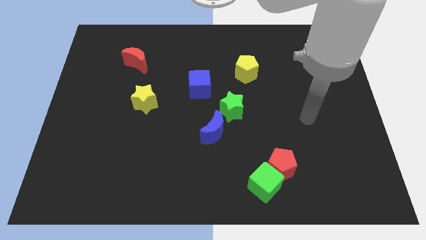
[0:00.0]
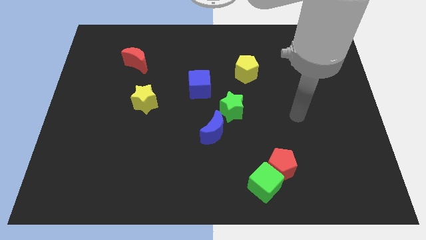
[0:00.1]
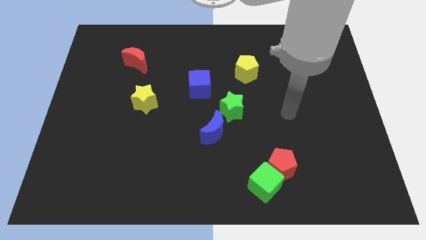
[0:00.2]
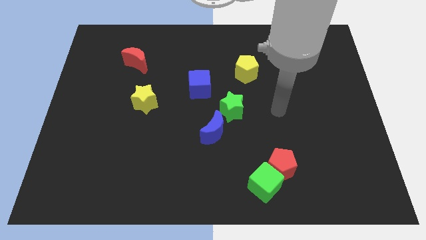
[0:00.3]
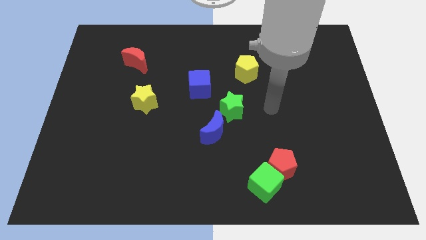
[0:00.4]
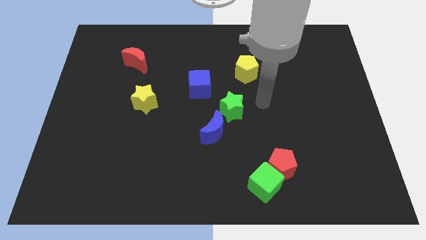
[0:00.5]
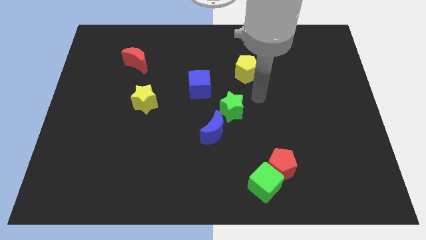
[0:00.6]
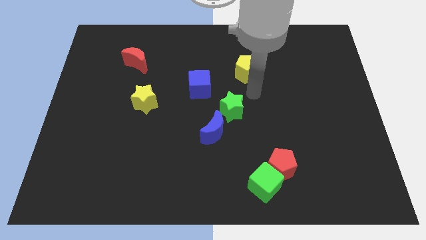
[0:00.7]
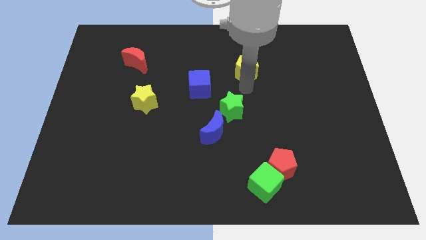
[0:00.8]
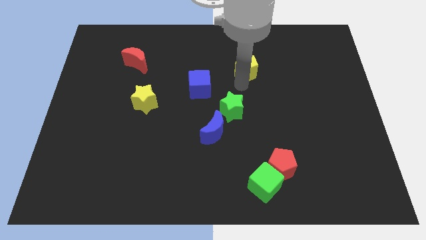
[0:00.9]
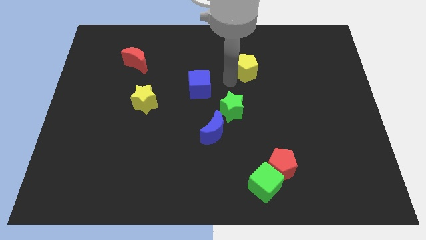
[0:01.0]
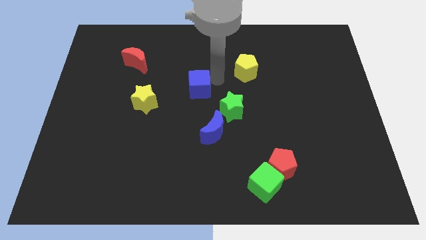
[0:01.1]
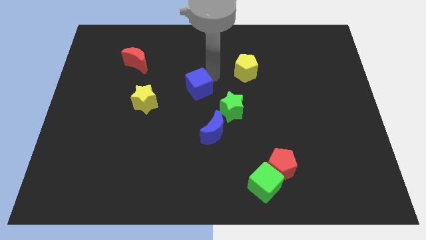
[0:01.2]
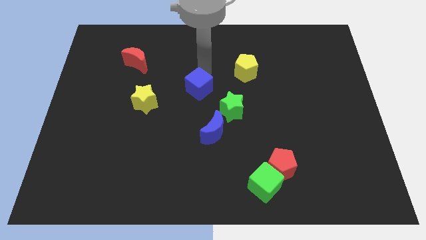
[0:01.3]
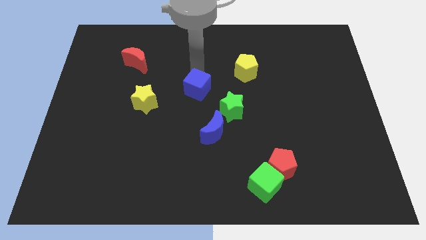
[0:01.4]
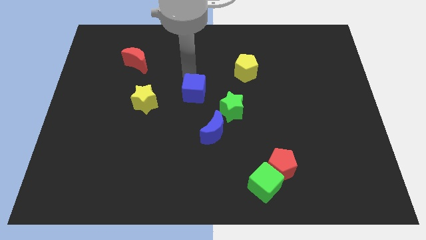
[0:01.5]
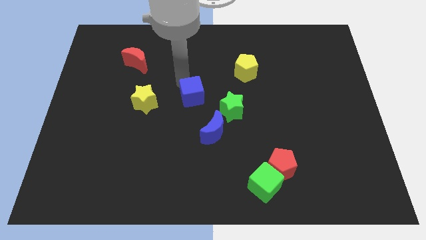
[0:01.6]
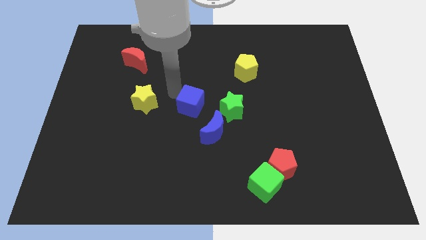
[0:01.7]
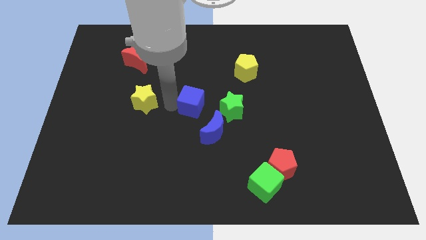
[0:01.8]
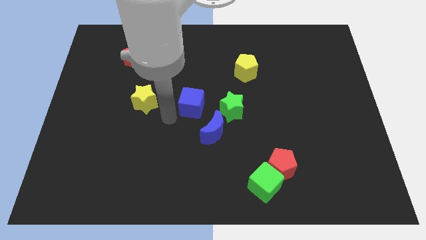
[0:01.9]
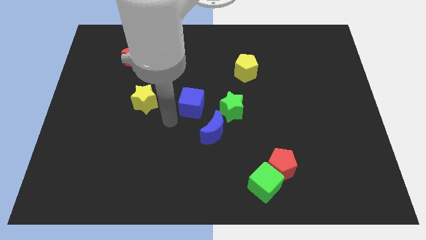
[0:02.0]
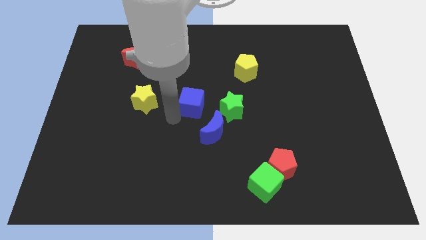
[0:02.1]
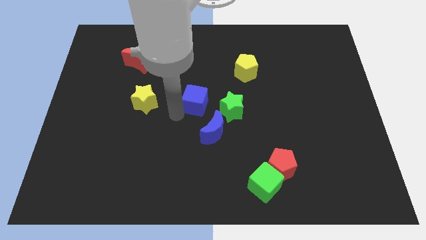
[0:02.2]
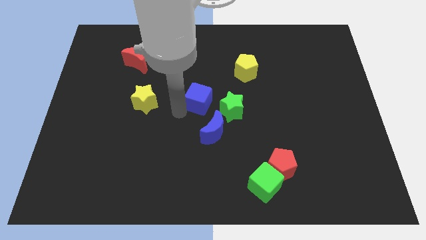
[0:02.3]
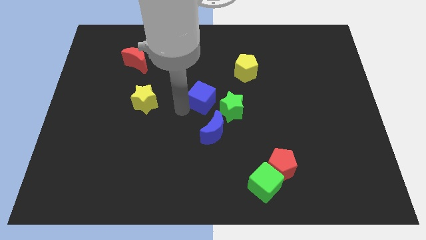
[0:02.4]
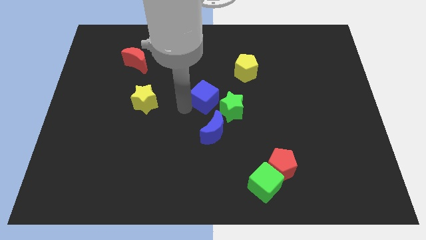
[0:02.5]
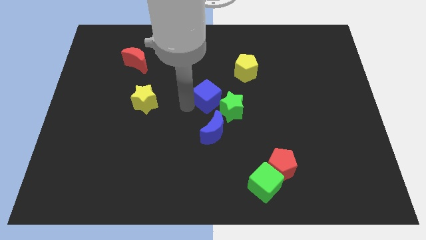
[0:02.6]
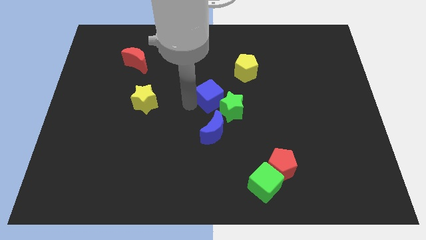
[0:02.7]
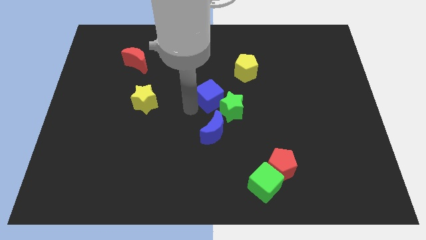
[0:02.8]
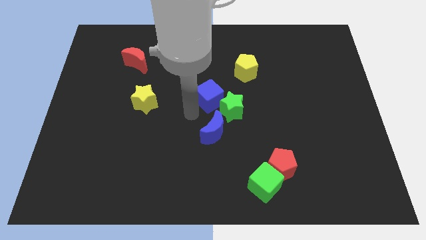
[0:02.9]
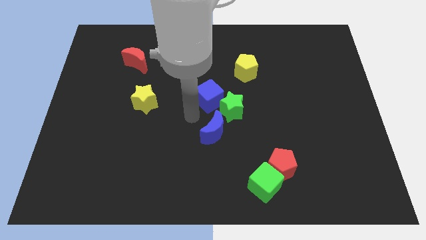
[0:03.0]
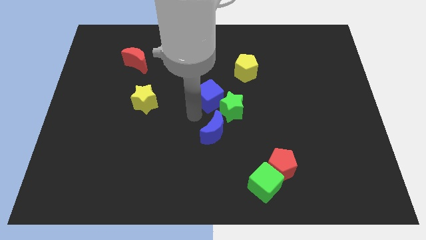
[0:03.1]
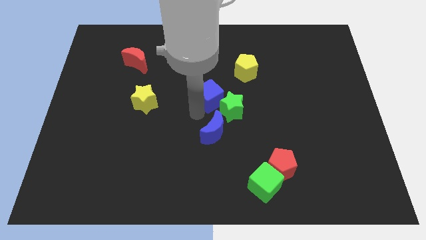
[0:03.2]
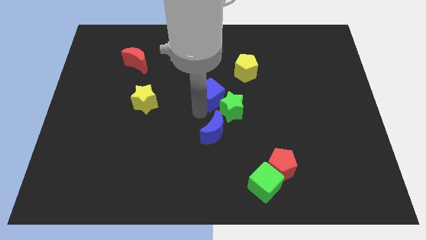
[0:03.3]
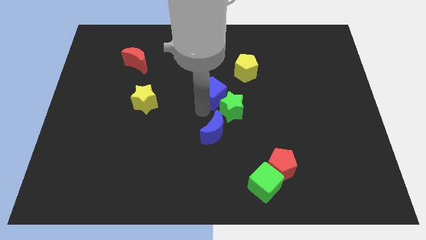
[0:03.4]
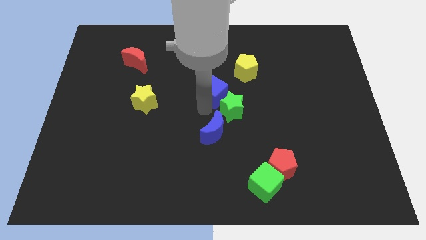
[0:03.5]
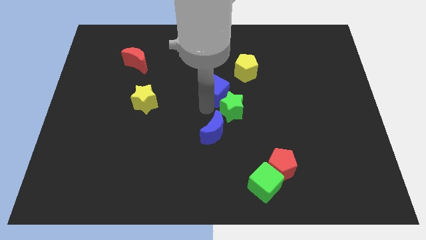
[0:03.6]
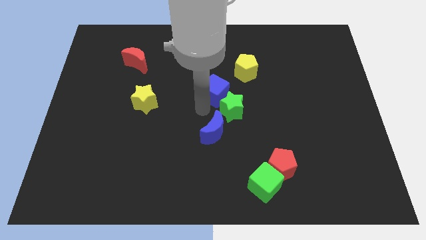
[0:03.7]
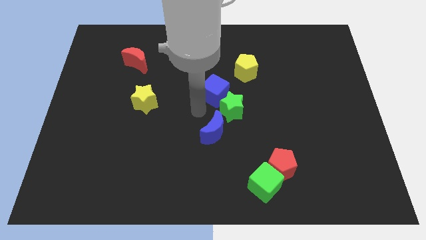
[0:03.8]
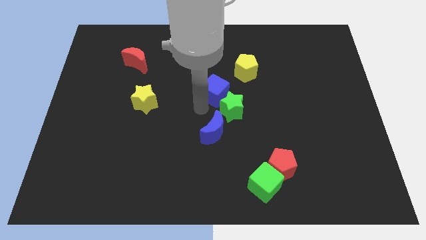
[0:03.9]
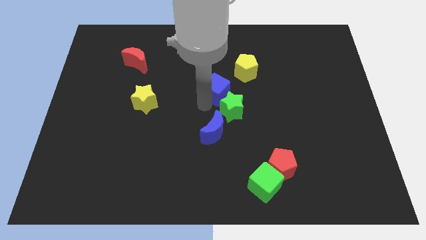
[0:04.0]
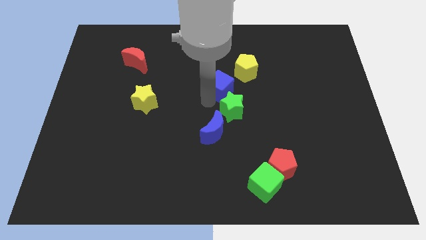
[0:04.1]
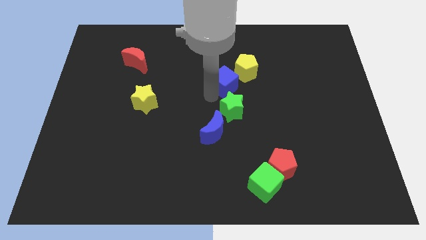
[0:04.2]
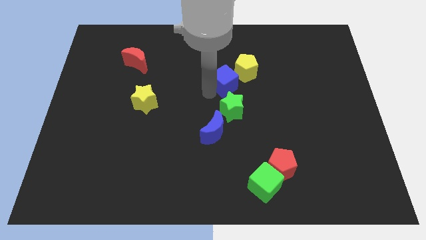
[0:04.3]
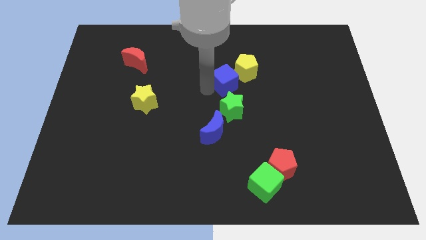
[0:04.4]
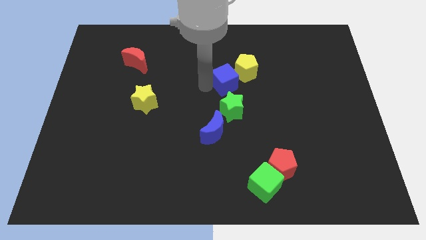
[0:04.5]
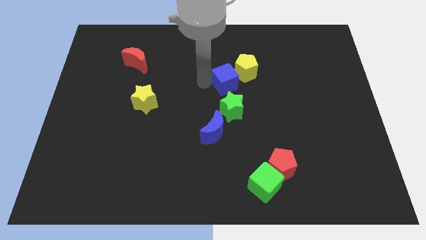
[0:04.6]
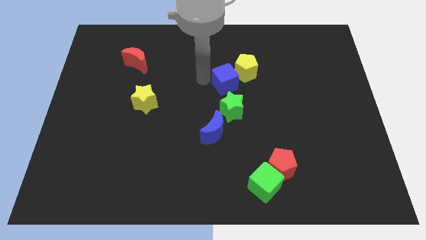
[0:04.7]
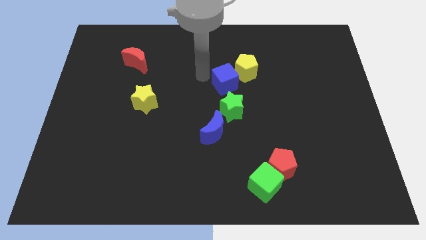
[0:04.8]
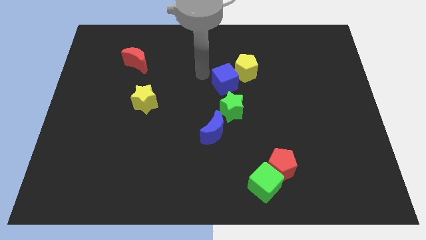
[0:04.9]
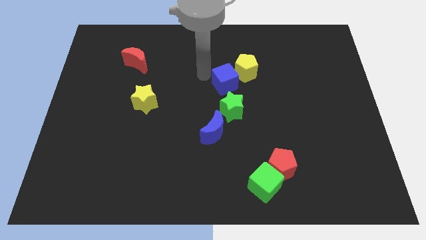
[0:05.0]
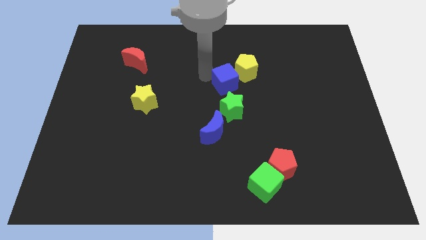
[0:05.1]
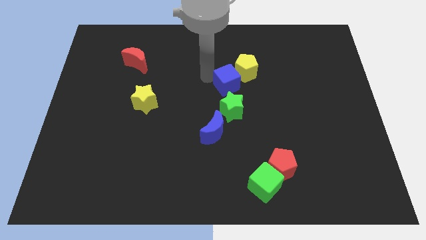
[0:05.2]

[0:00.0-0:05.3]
move the blue cube right somewhat

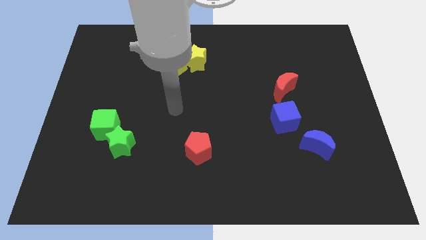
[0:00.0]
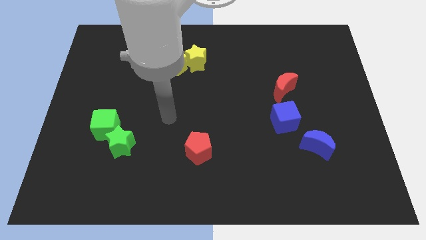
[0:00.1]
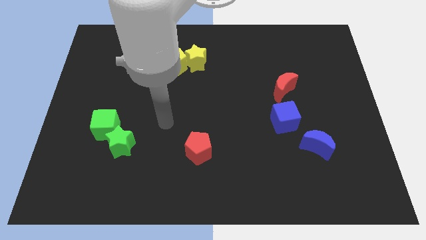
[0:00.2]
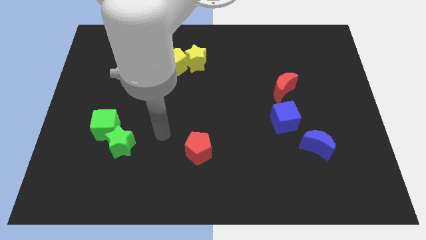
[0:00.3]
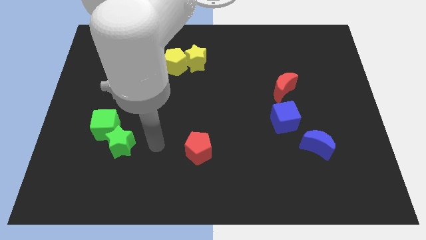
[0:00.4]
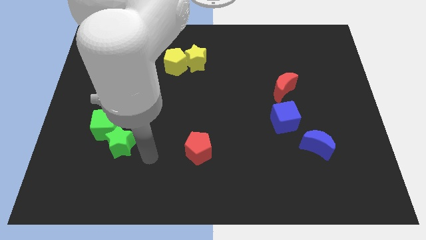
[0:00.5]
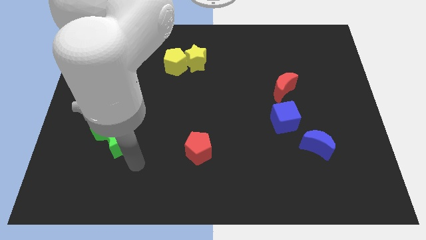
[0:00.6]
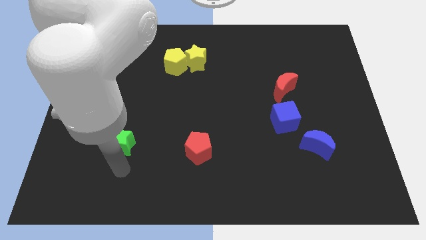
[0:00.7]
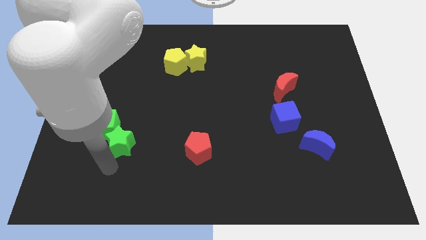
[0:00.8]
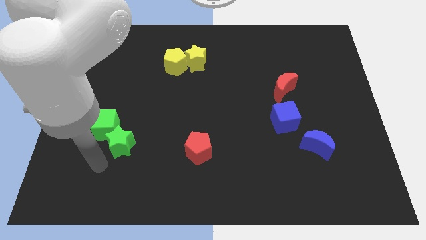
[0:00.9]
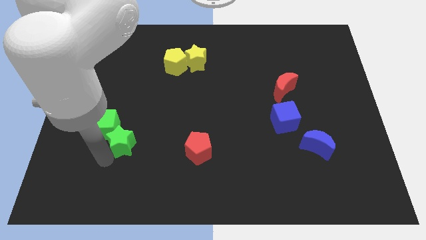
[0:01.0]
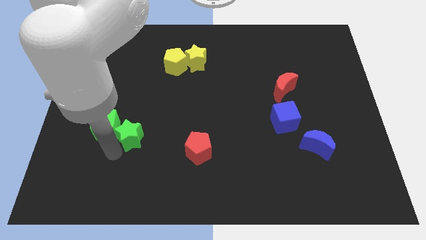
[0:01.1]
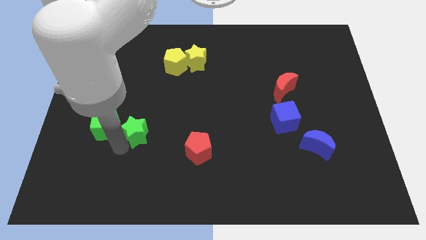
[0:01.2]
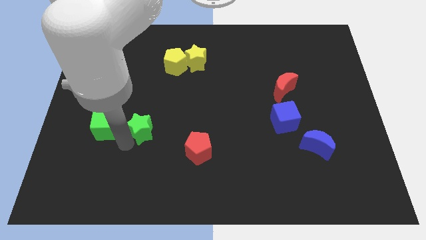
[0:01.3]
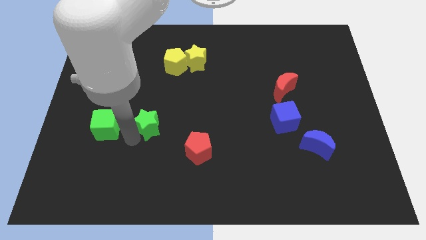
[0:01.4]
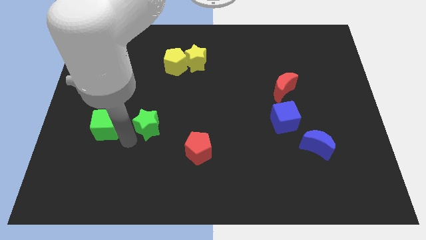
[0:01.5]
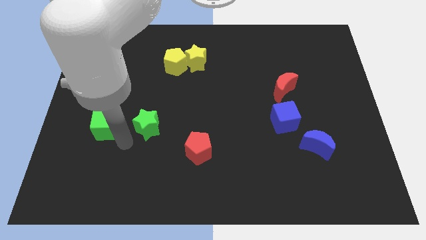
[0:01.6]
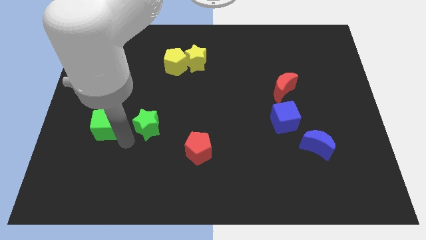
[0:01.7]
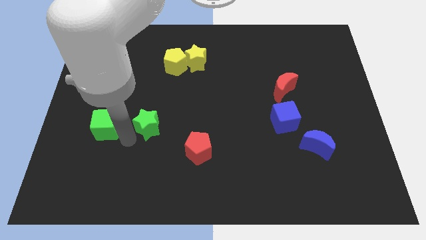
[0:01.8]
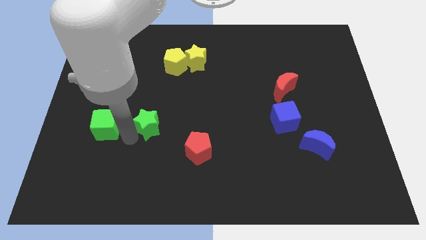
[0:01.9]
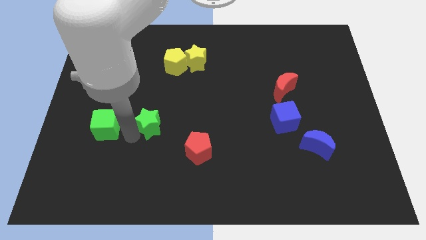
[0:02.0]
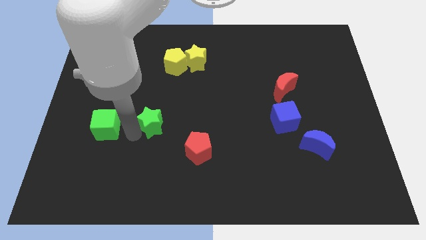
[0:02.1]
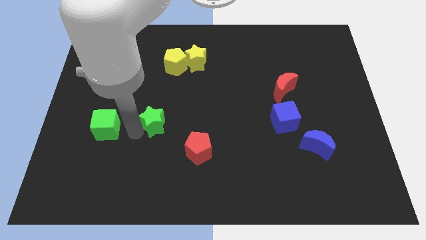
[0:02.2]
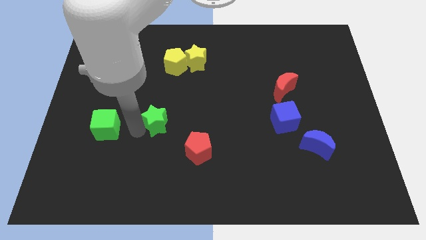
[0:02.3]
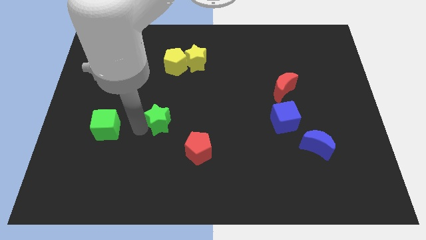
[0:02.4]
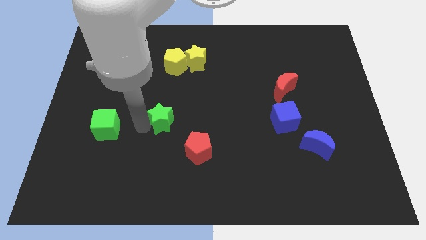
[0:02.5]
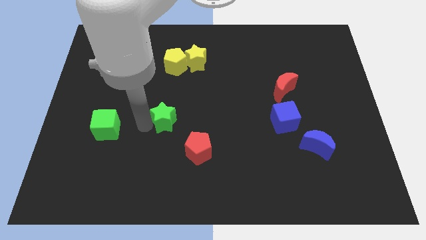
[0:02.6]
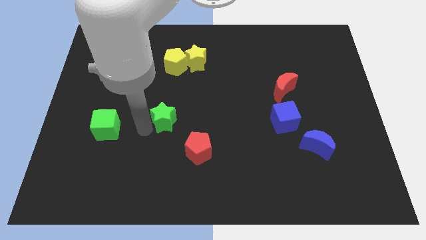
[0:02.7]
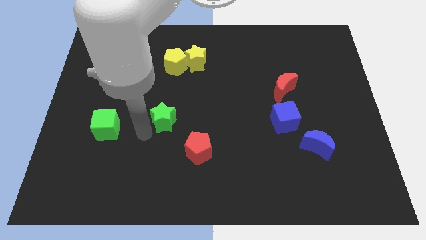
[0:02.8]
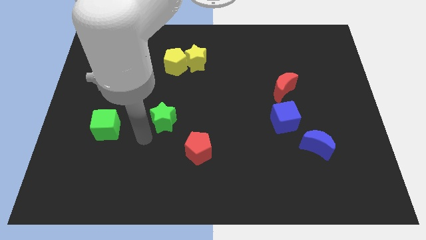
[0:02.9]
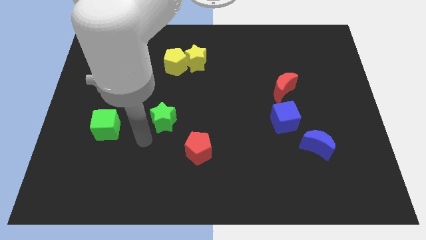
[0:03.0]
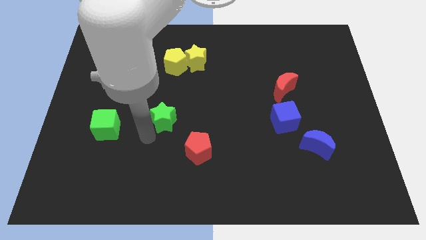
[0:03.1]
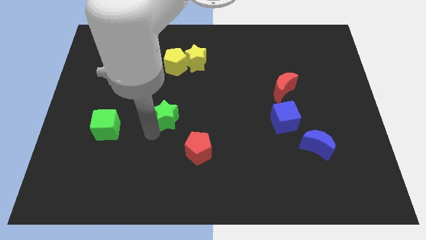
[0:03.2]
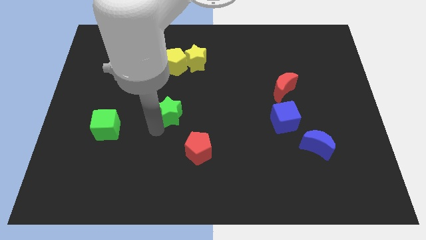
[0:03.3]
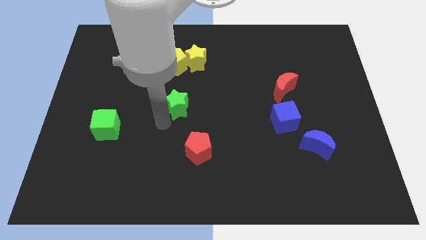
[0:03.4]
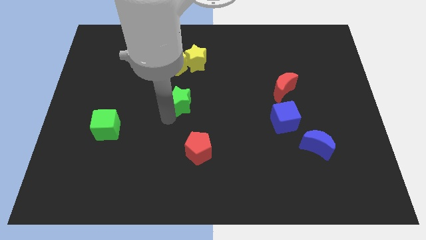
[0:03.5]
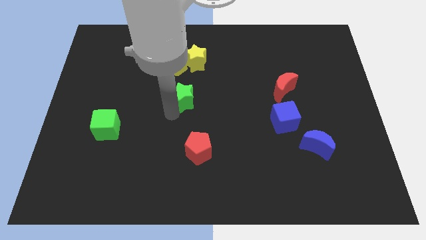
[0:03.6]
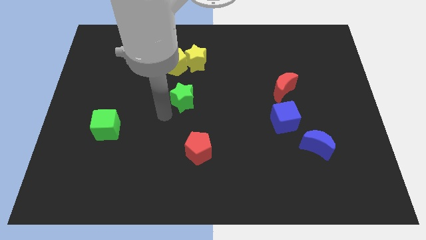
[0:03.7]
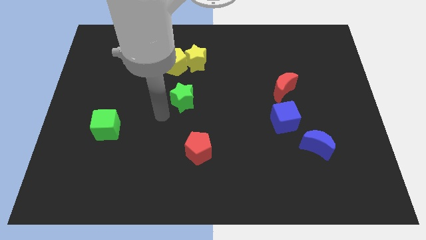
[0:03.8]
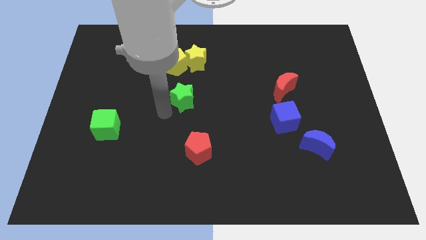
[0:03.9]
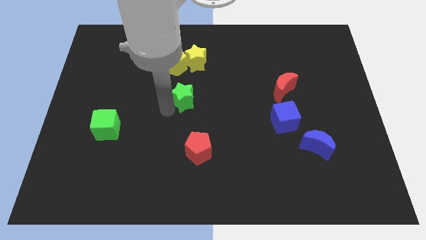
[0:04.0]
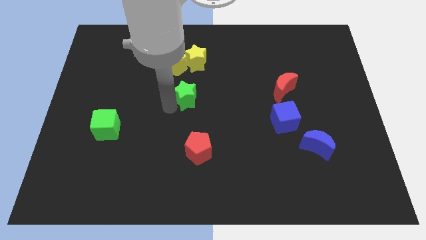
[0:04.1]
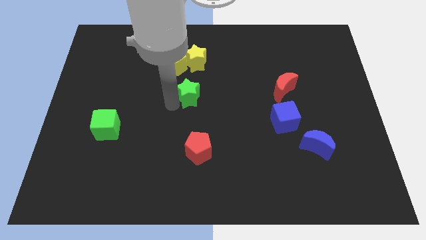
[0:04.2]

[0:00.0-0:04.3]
push the green star up and to the right diagonally
